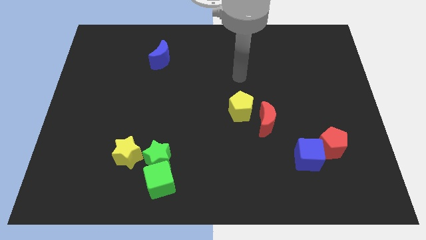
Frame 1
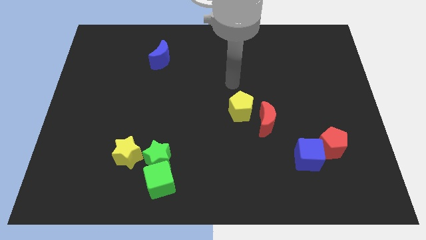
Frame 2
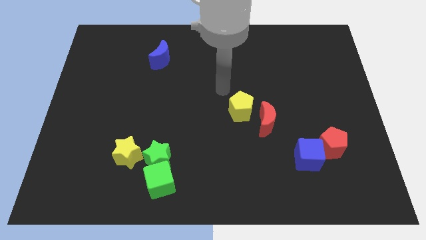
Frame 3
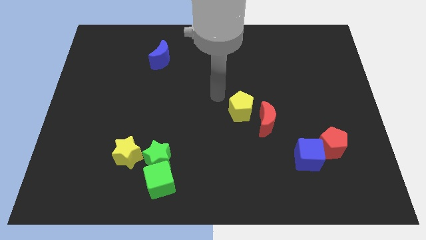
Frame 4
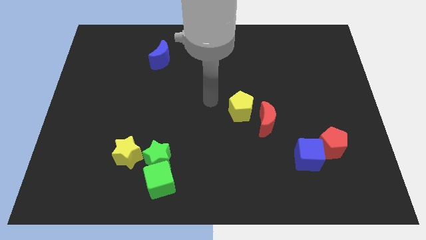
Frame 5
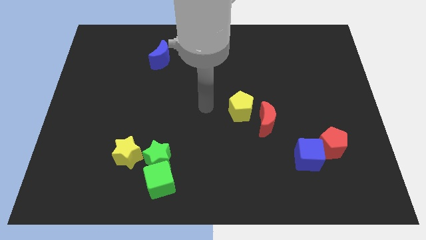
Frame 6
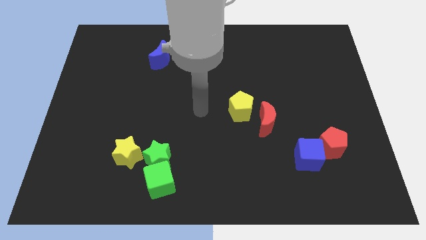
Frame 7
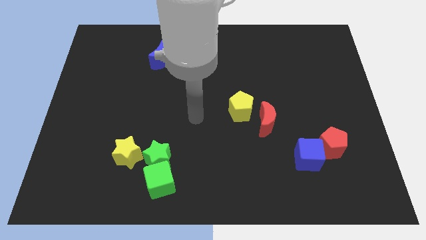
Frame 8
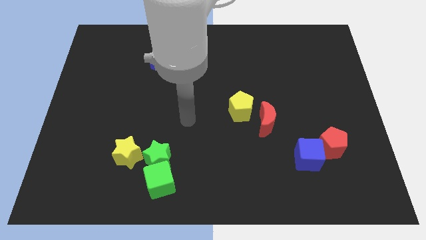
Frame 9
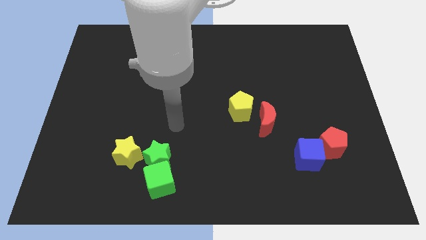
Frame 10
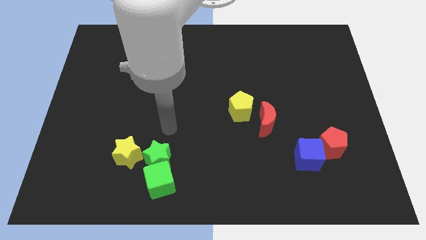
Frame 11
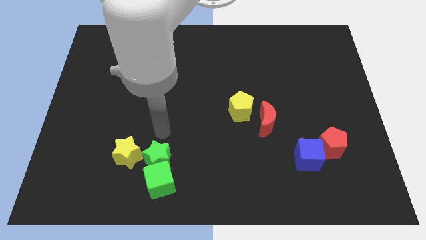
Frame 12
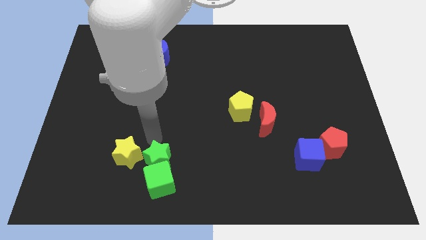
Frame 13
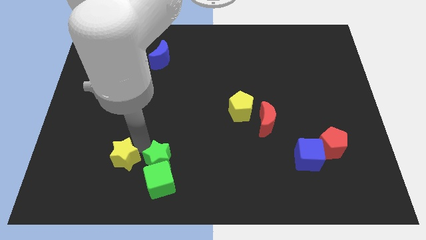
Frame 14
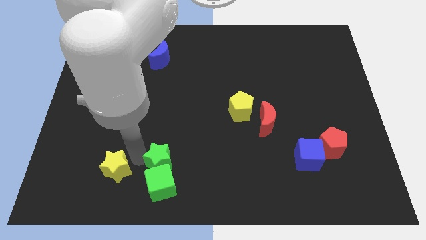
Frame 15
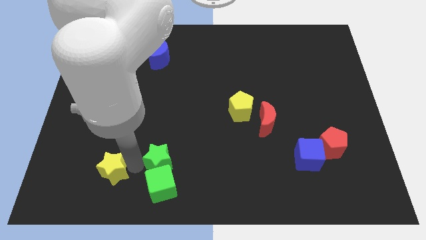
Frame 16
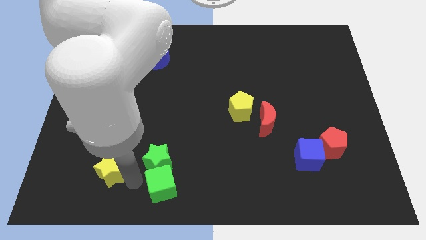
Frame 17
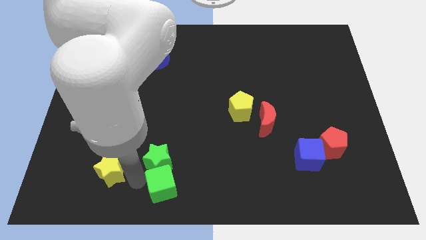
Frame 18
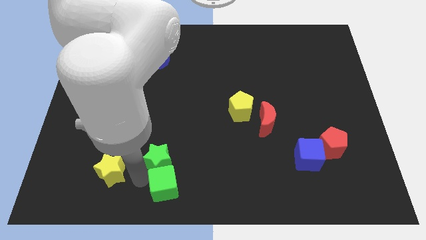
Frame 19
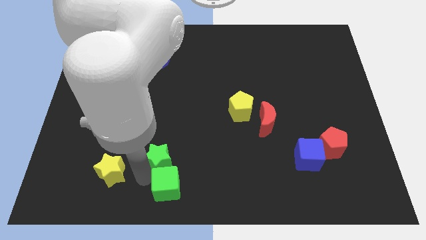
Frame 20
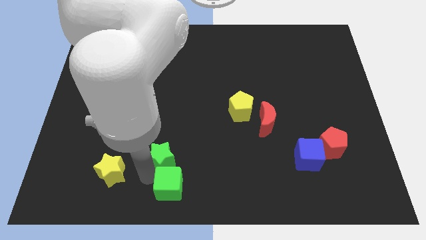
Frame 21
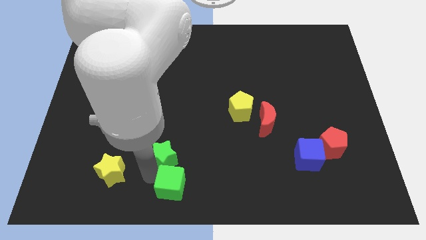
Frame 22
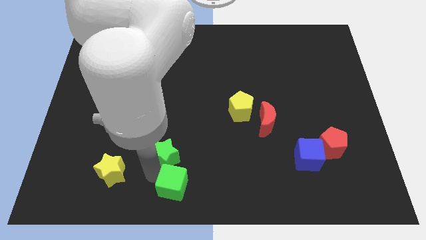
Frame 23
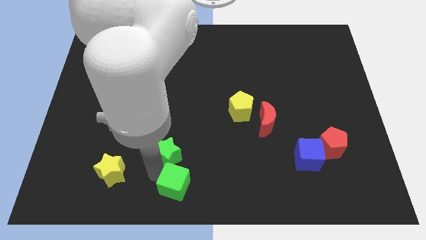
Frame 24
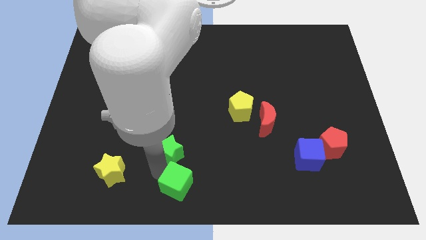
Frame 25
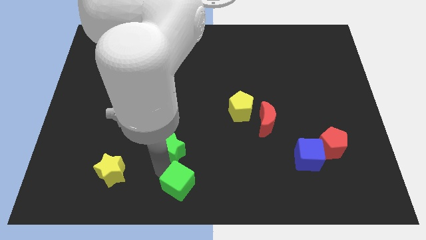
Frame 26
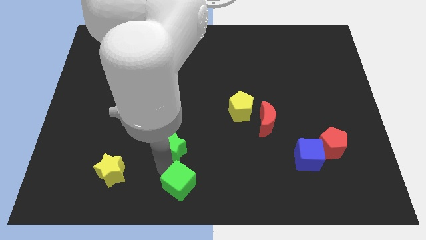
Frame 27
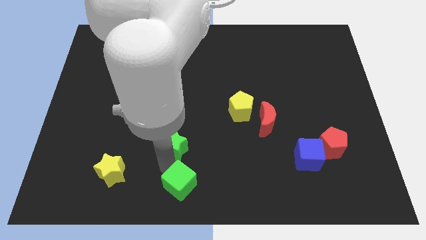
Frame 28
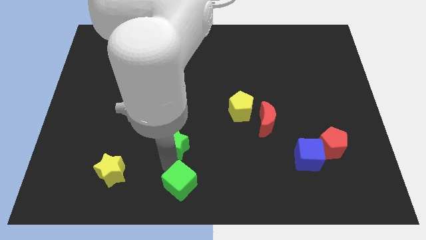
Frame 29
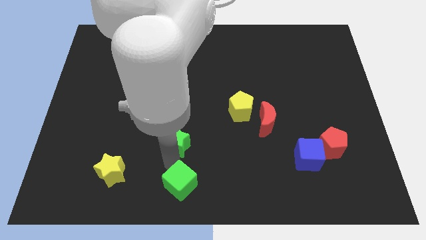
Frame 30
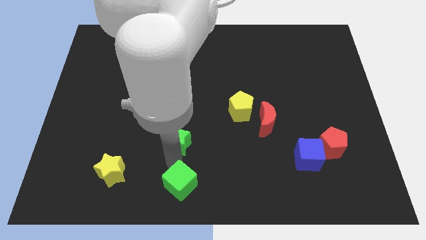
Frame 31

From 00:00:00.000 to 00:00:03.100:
separate the green star from the green cube and yellow star

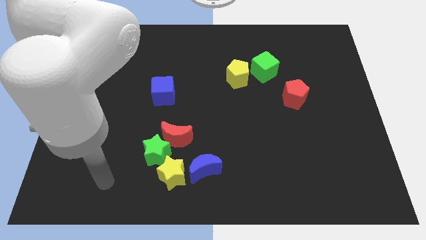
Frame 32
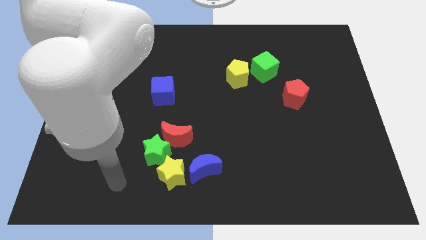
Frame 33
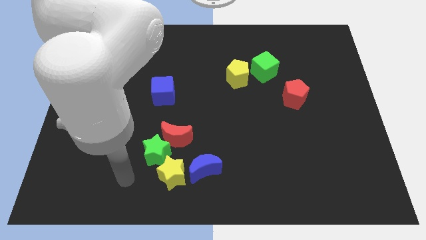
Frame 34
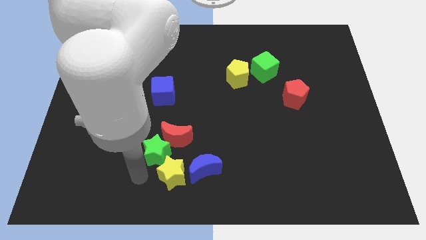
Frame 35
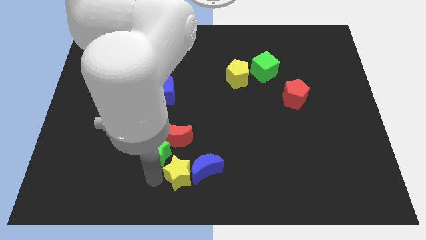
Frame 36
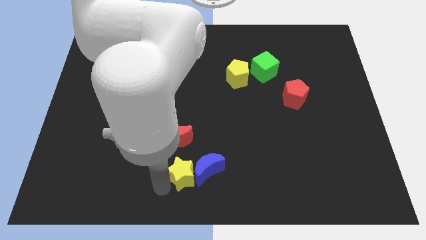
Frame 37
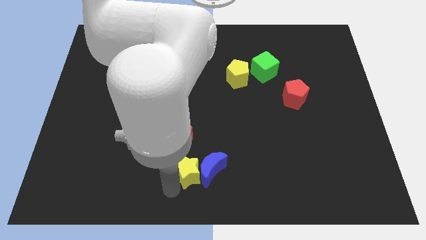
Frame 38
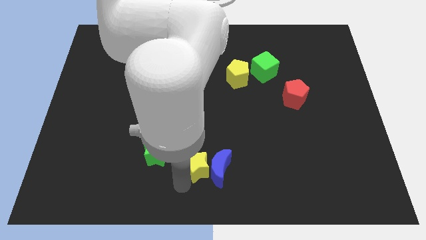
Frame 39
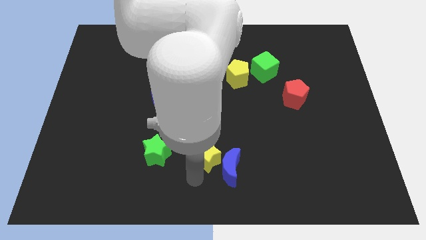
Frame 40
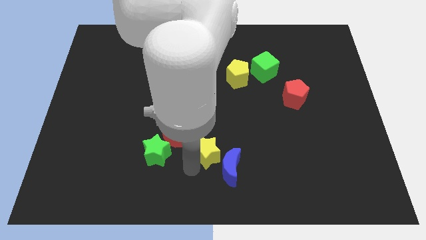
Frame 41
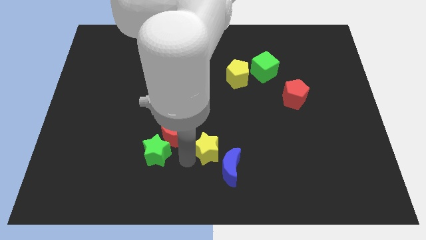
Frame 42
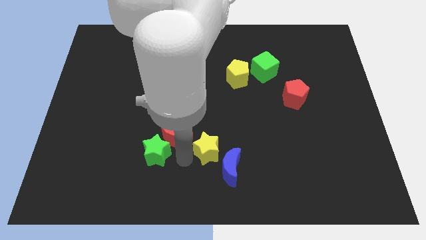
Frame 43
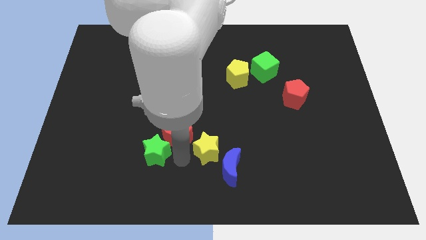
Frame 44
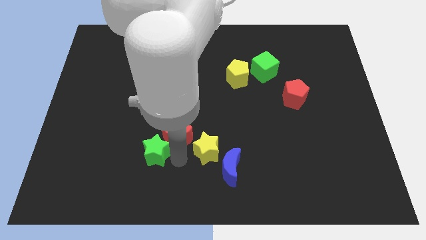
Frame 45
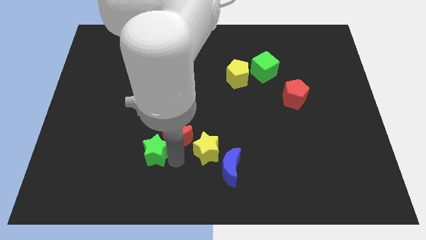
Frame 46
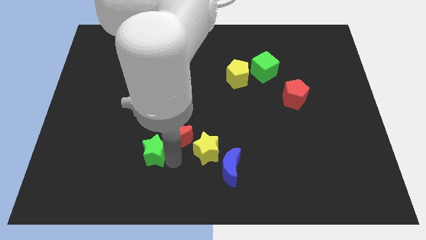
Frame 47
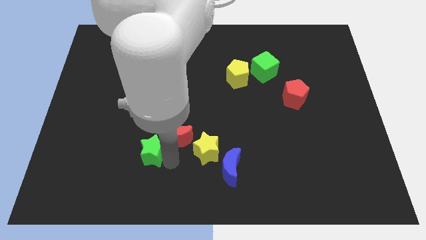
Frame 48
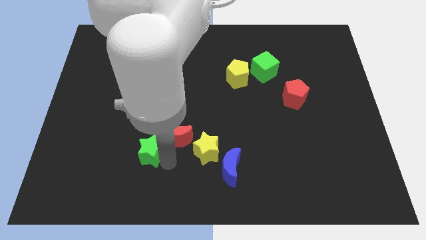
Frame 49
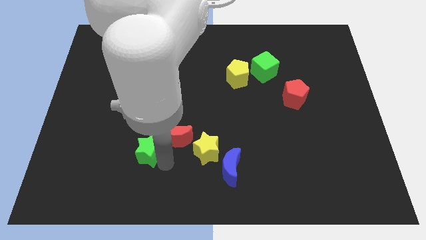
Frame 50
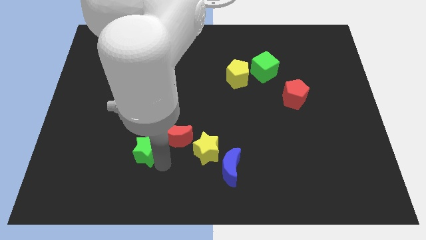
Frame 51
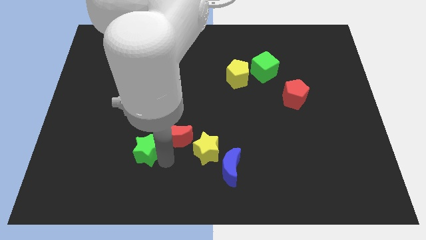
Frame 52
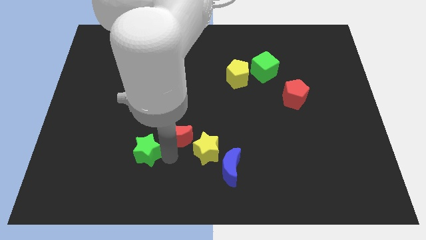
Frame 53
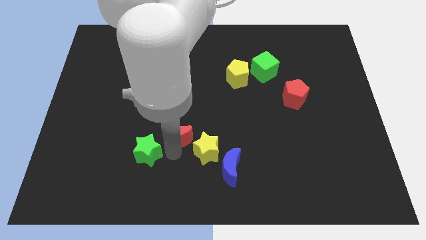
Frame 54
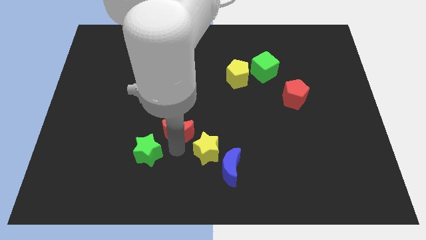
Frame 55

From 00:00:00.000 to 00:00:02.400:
pull the green star apart from the red moon and yellow star

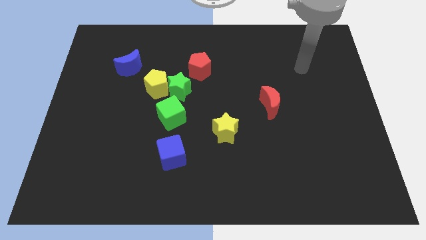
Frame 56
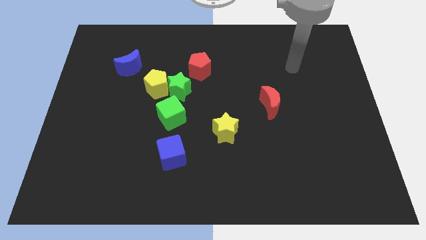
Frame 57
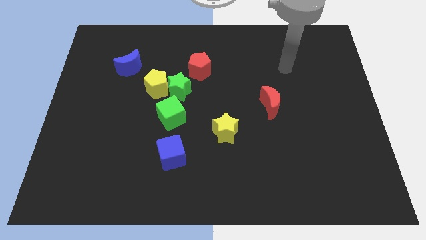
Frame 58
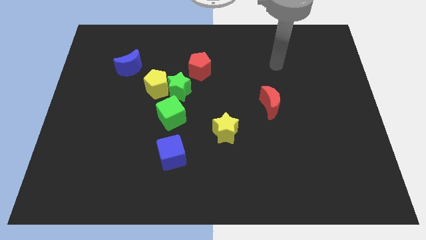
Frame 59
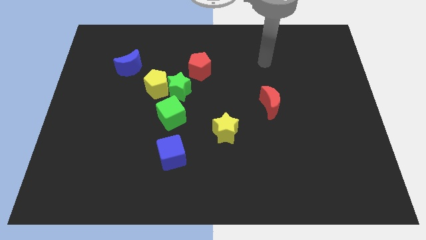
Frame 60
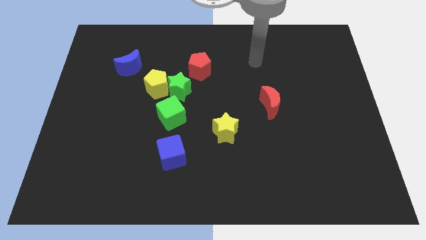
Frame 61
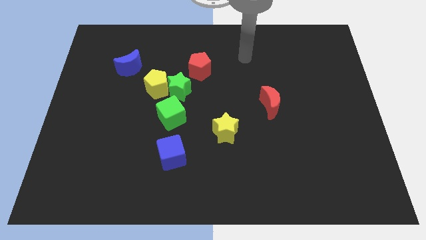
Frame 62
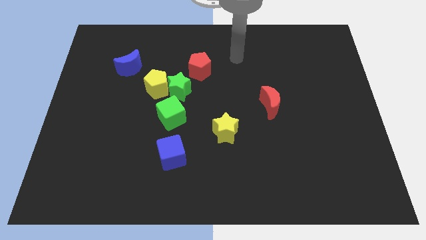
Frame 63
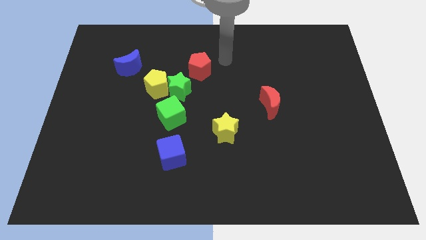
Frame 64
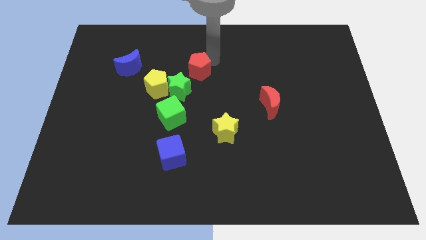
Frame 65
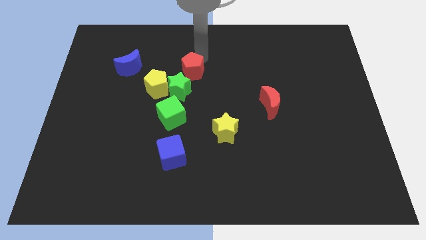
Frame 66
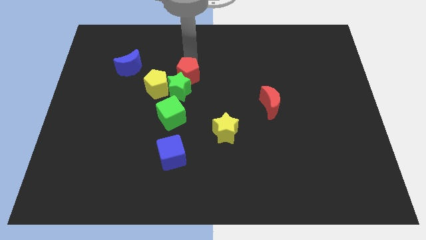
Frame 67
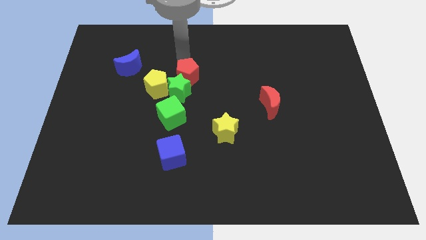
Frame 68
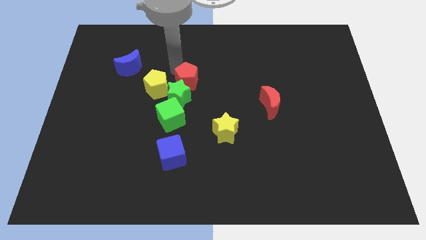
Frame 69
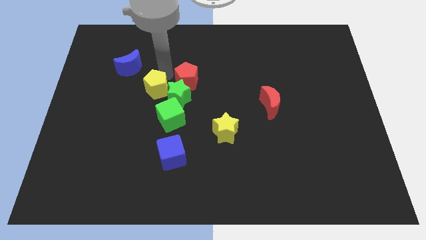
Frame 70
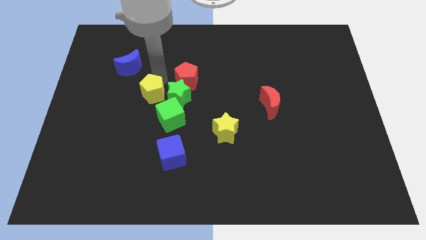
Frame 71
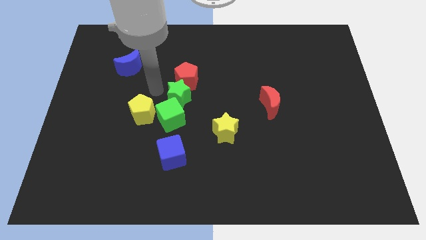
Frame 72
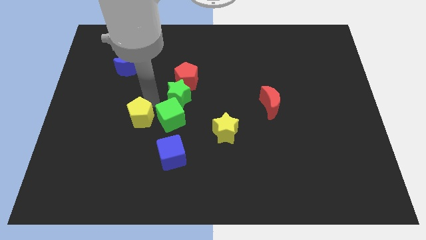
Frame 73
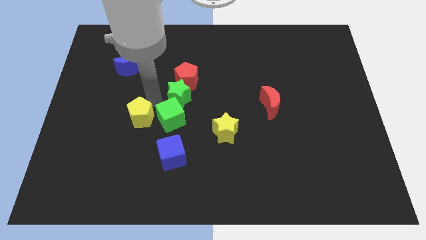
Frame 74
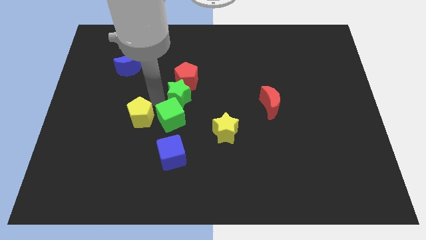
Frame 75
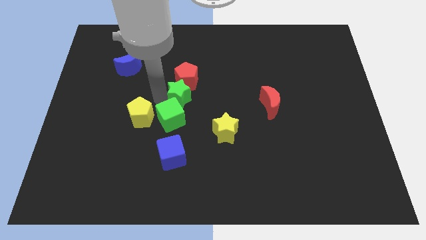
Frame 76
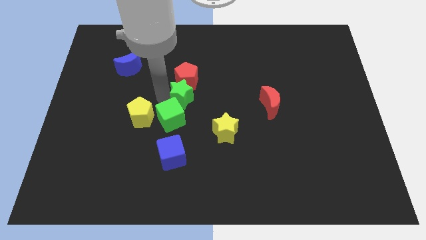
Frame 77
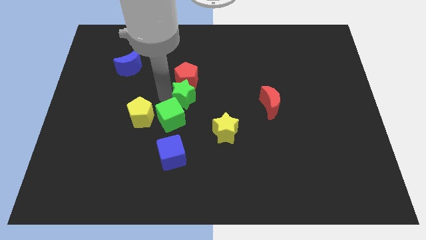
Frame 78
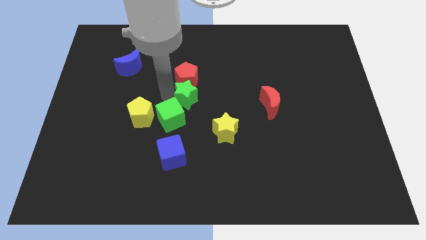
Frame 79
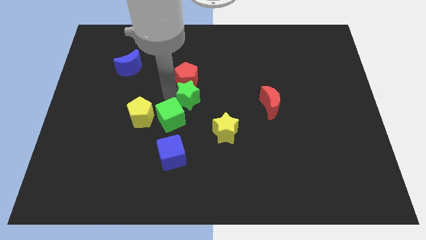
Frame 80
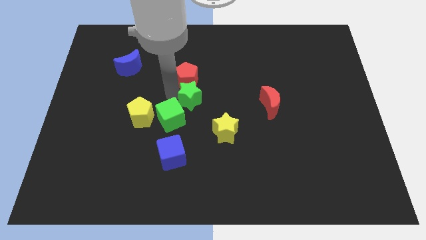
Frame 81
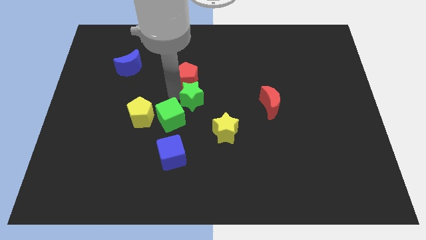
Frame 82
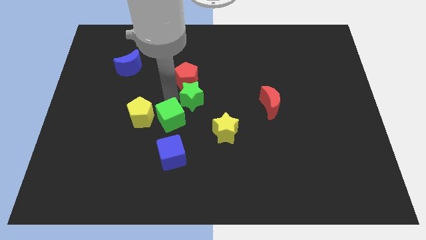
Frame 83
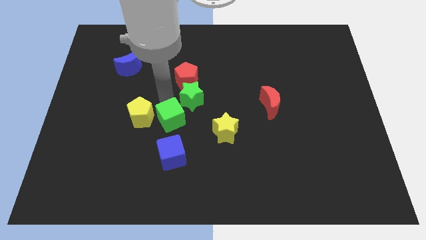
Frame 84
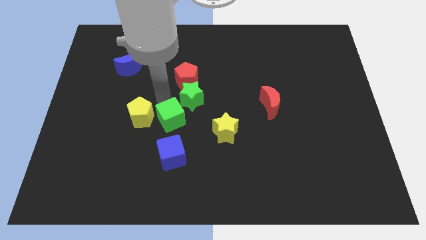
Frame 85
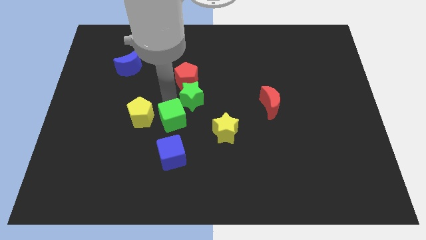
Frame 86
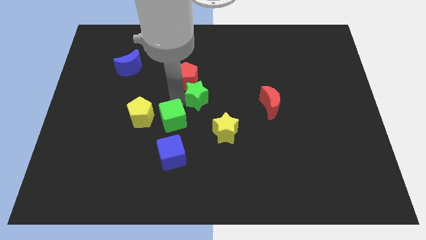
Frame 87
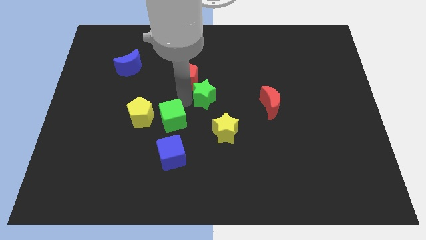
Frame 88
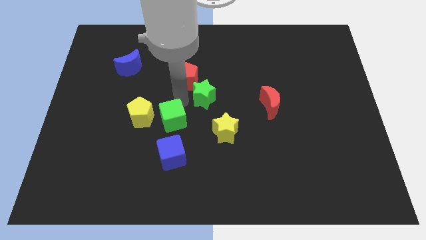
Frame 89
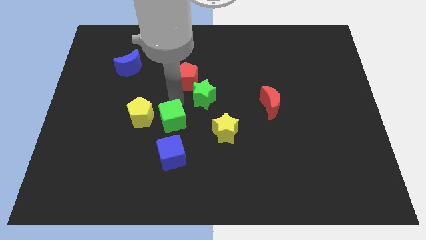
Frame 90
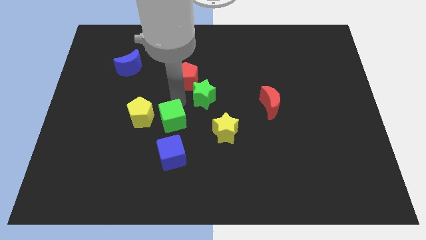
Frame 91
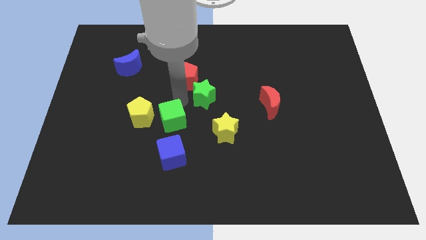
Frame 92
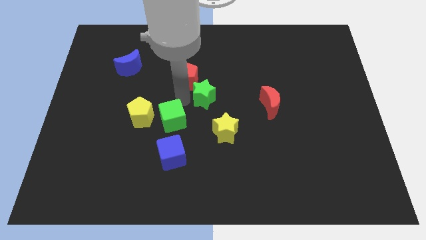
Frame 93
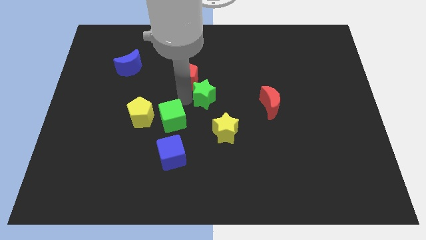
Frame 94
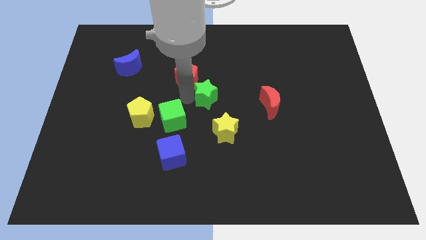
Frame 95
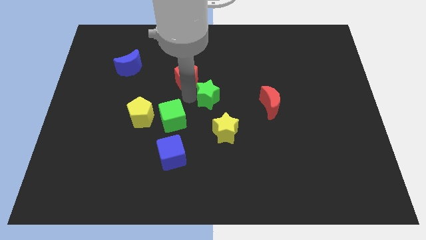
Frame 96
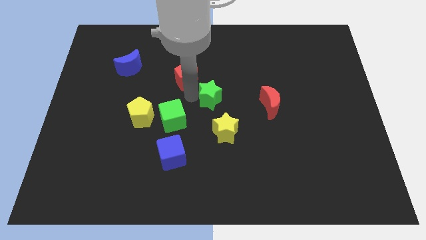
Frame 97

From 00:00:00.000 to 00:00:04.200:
pull the green star apart from the clump
